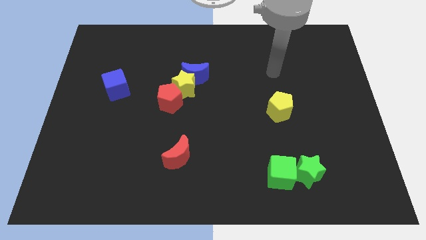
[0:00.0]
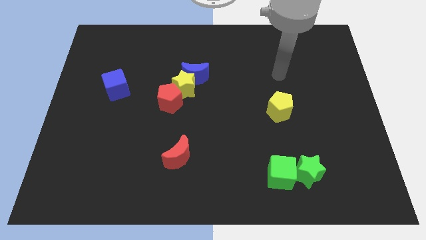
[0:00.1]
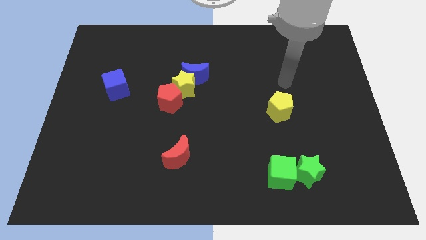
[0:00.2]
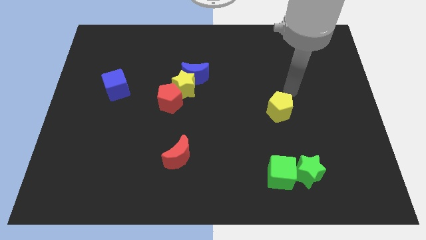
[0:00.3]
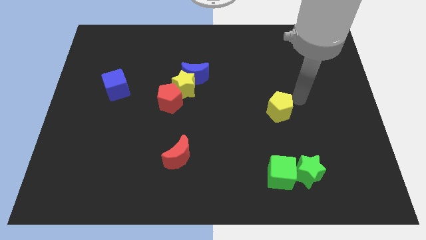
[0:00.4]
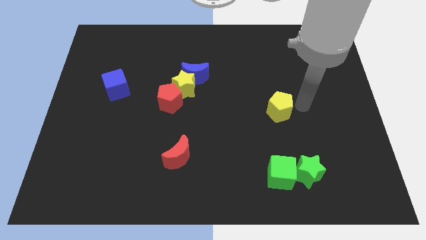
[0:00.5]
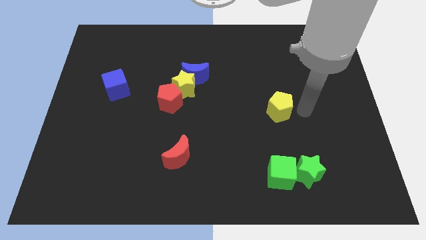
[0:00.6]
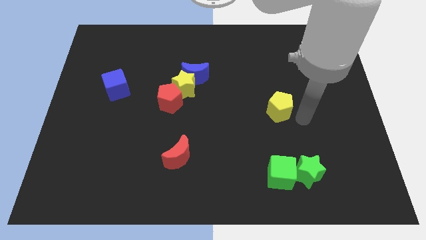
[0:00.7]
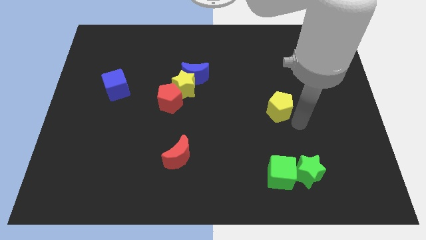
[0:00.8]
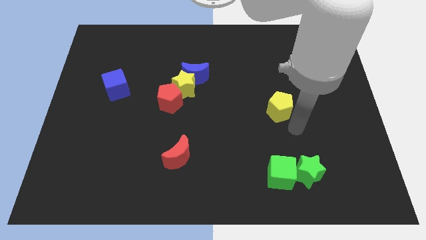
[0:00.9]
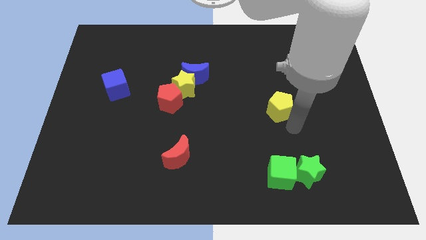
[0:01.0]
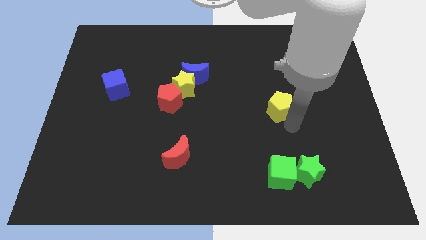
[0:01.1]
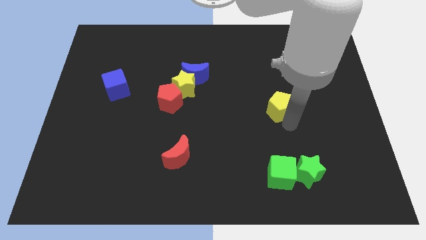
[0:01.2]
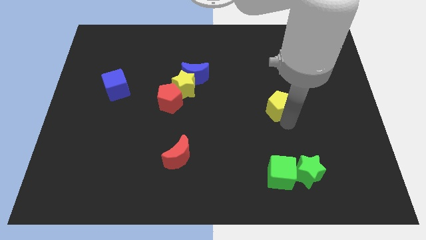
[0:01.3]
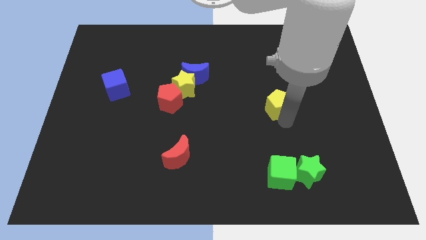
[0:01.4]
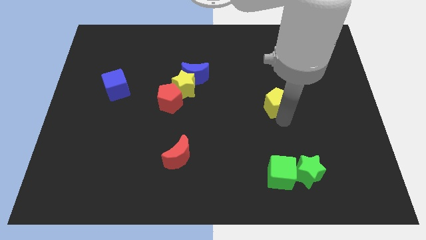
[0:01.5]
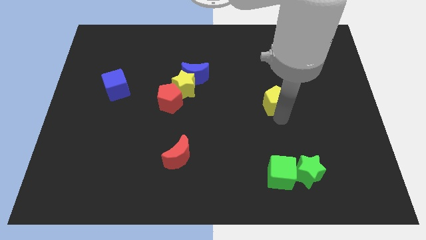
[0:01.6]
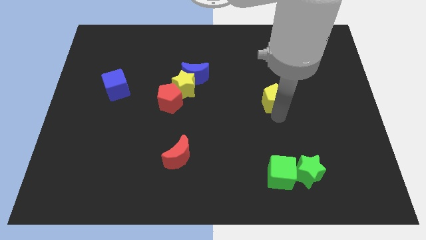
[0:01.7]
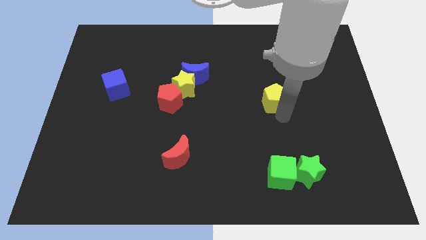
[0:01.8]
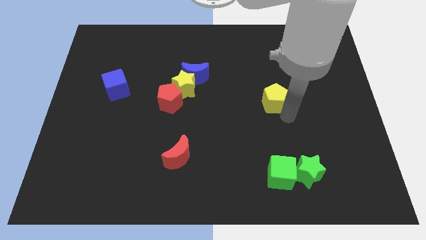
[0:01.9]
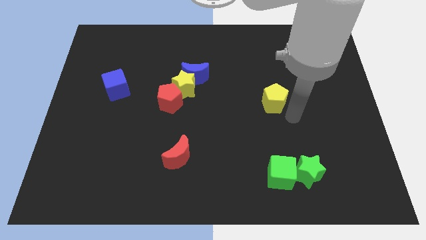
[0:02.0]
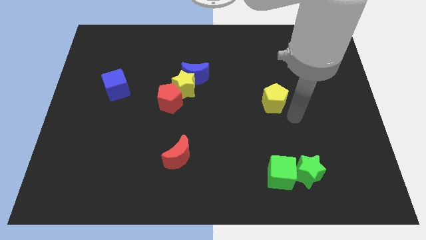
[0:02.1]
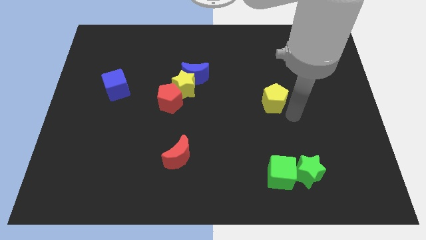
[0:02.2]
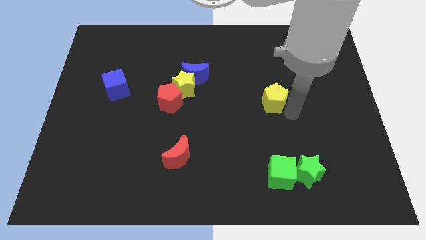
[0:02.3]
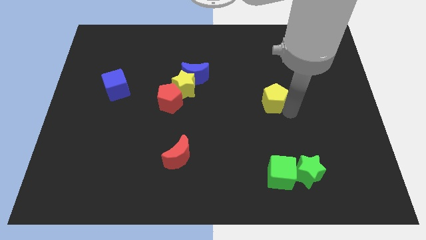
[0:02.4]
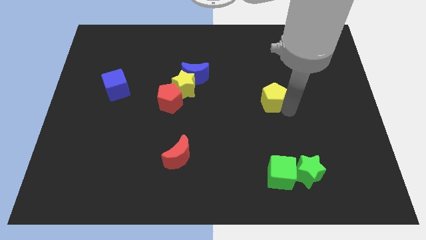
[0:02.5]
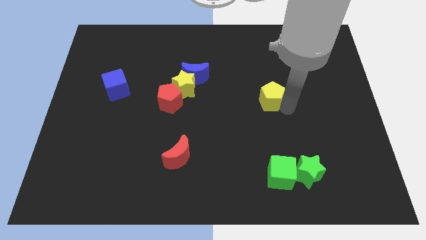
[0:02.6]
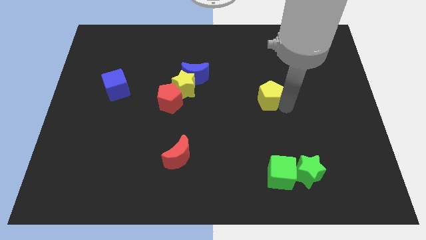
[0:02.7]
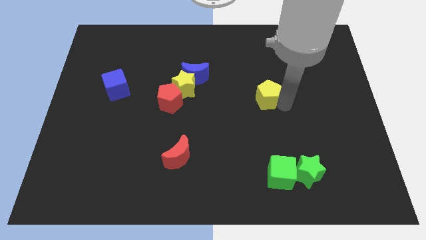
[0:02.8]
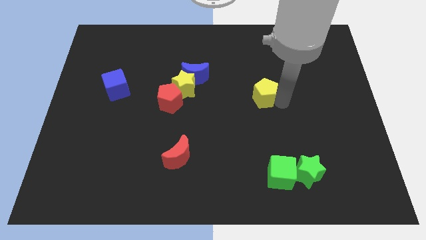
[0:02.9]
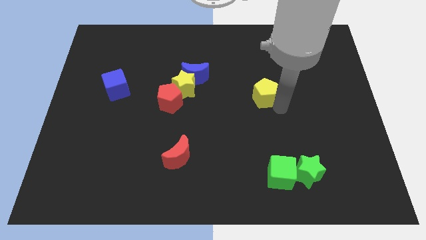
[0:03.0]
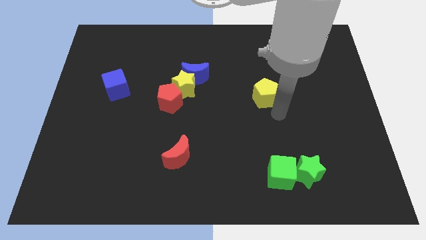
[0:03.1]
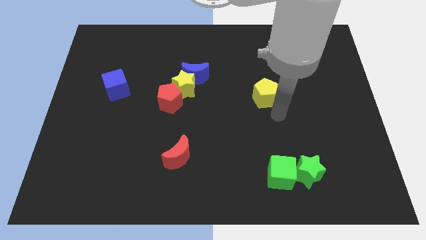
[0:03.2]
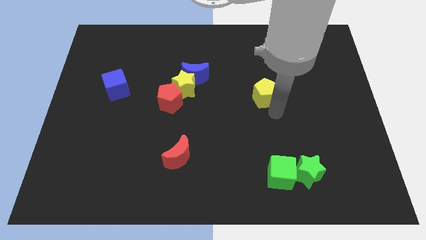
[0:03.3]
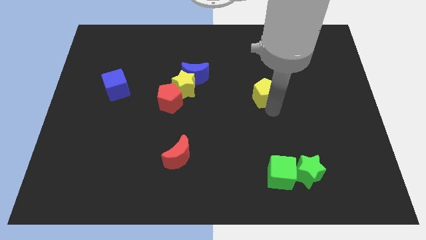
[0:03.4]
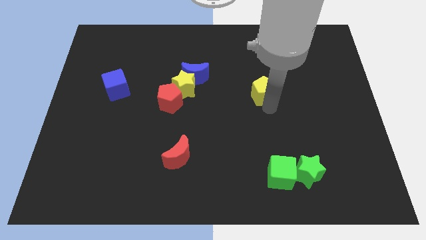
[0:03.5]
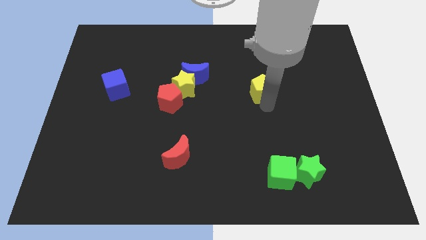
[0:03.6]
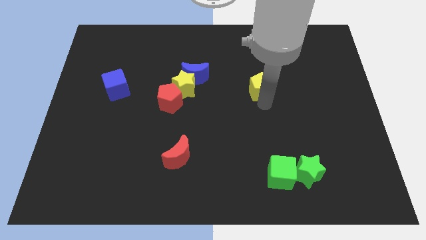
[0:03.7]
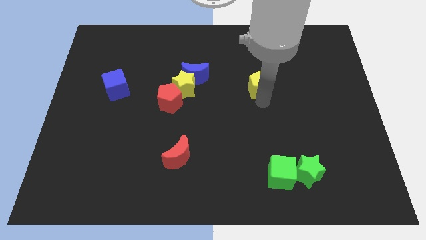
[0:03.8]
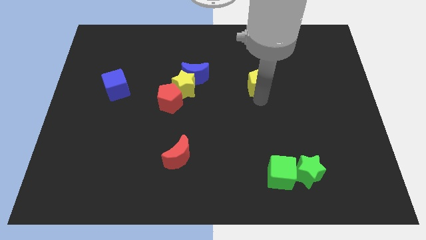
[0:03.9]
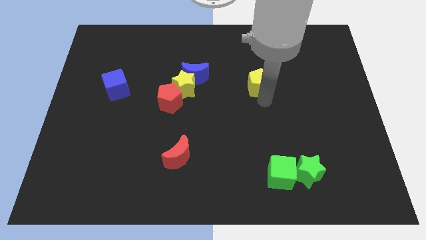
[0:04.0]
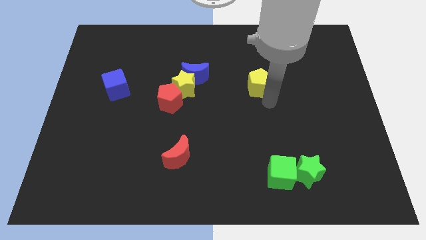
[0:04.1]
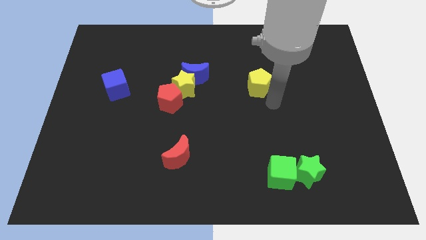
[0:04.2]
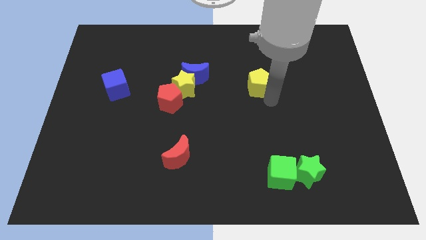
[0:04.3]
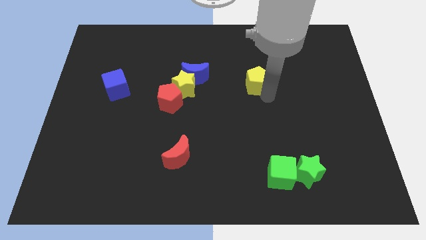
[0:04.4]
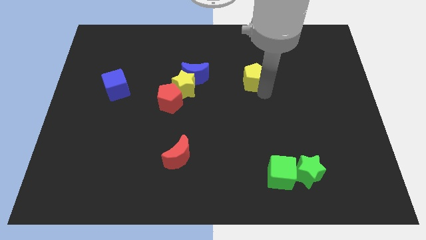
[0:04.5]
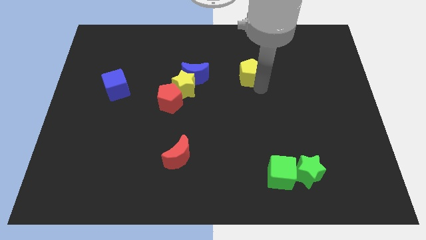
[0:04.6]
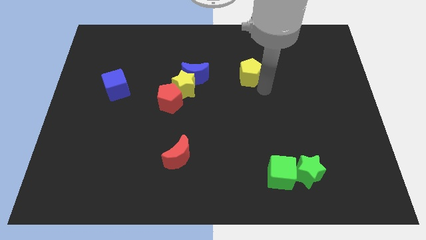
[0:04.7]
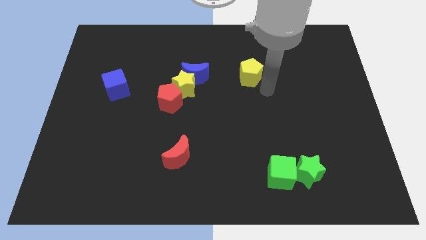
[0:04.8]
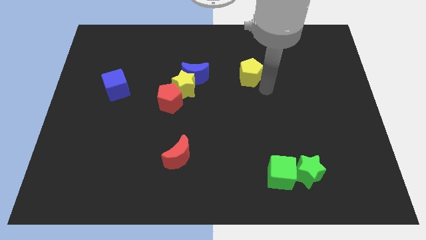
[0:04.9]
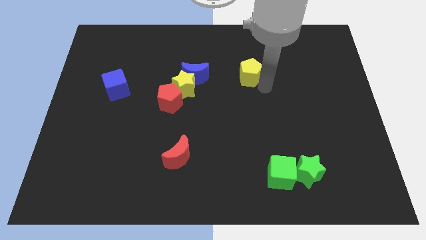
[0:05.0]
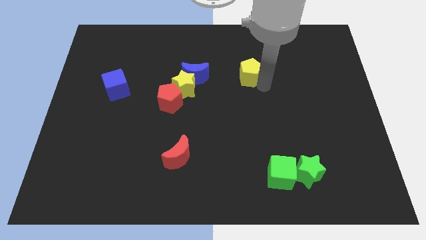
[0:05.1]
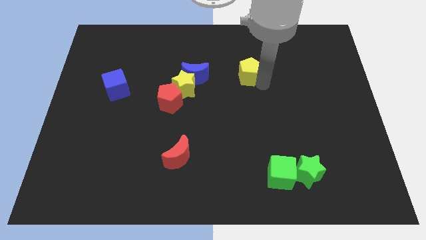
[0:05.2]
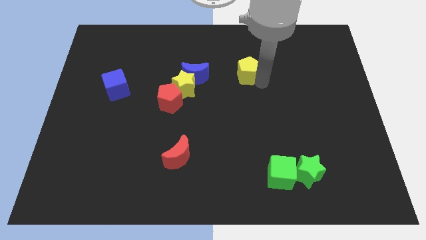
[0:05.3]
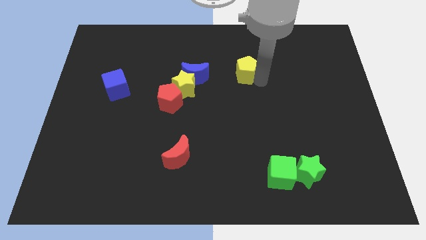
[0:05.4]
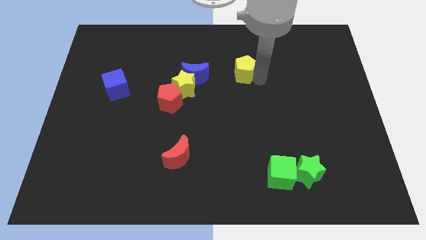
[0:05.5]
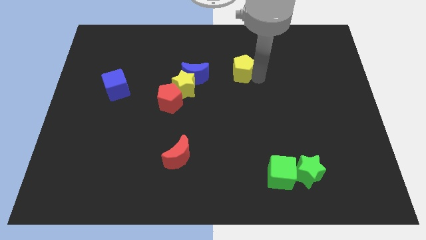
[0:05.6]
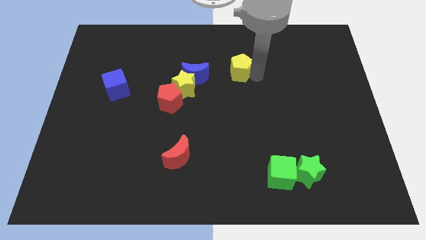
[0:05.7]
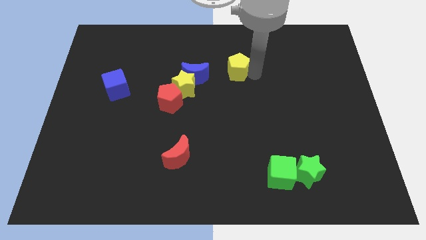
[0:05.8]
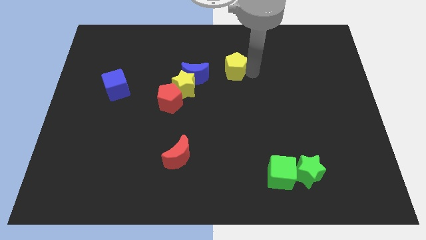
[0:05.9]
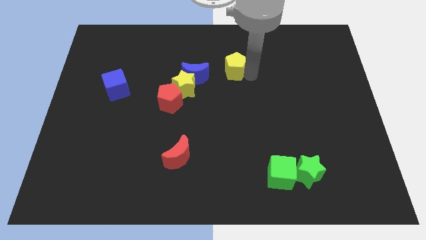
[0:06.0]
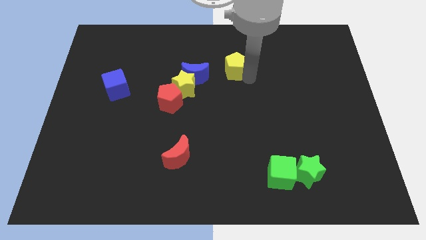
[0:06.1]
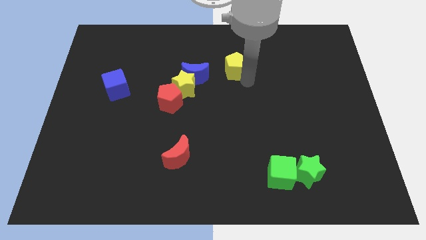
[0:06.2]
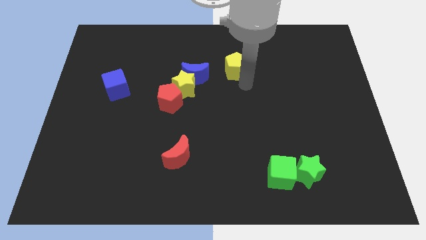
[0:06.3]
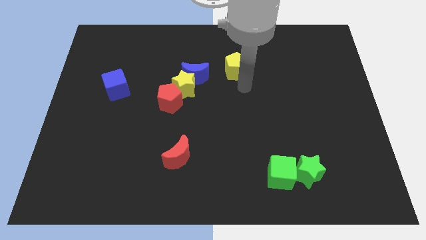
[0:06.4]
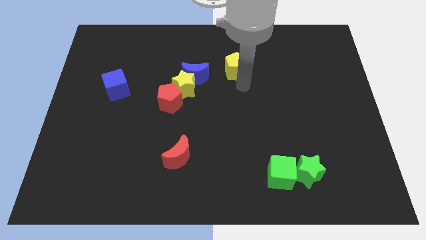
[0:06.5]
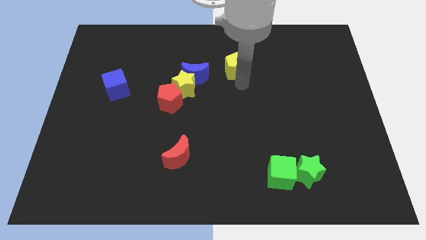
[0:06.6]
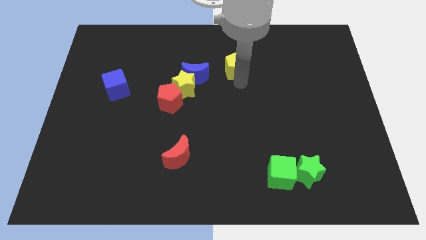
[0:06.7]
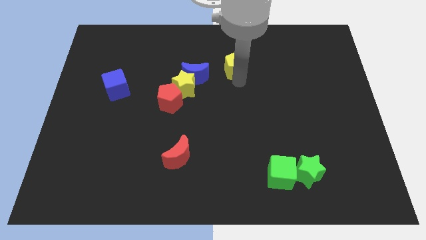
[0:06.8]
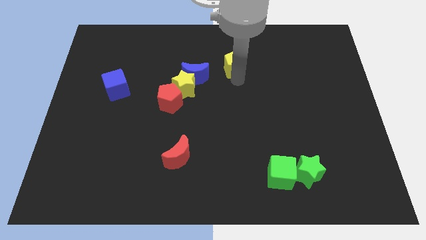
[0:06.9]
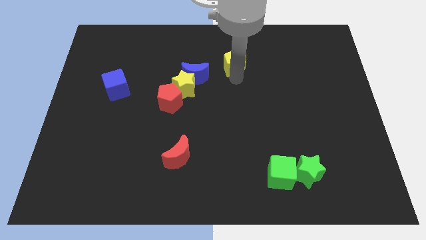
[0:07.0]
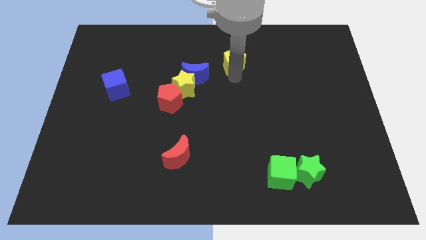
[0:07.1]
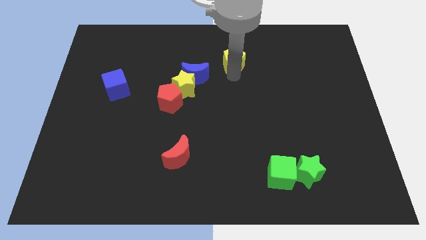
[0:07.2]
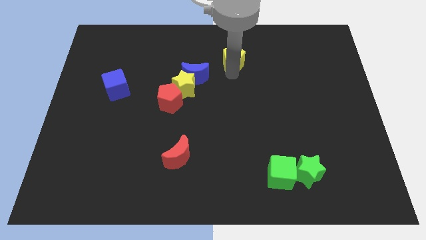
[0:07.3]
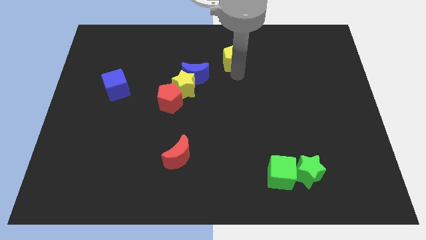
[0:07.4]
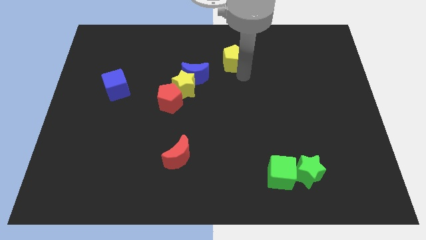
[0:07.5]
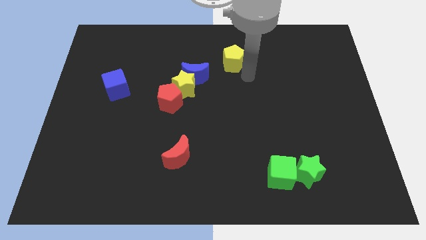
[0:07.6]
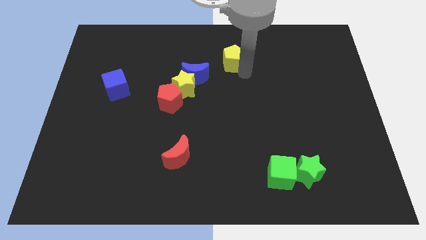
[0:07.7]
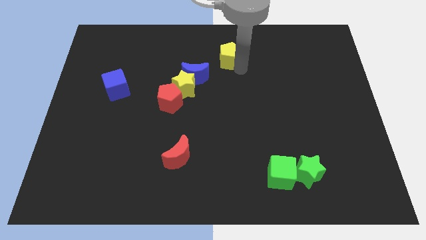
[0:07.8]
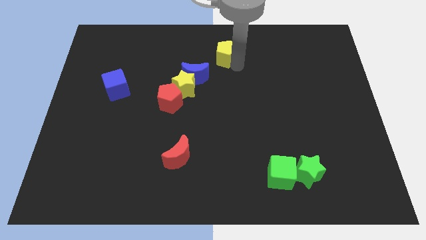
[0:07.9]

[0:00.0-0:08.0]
slide the yellow pentagon to the towards your base

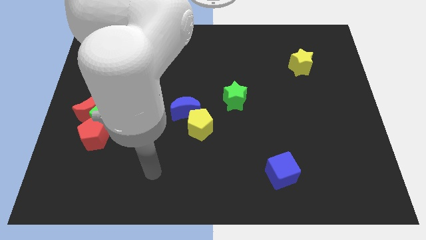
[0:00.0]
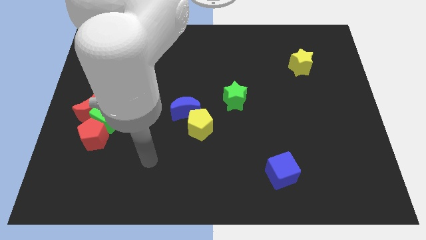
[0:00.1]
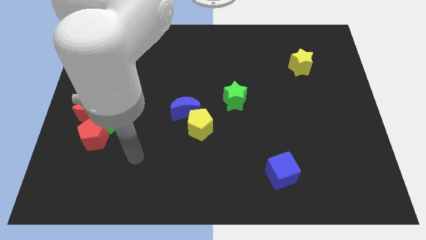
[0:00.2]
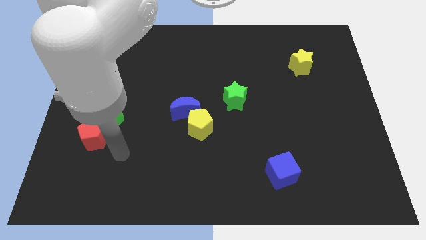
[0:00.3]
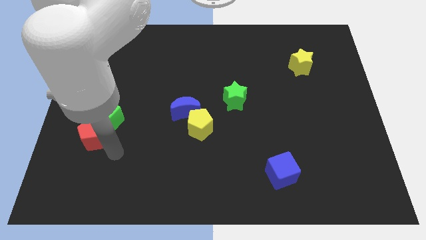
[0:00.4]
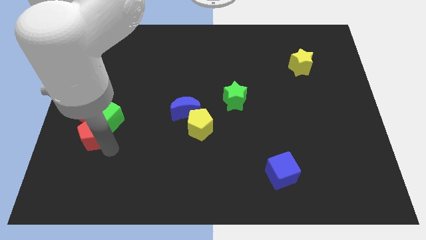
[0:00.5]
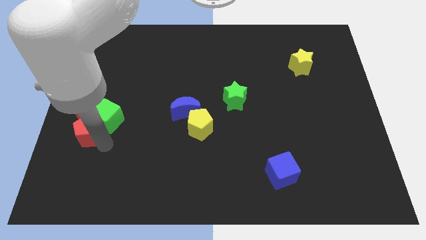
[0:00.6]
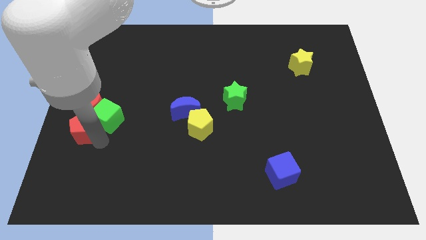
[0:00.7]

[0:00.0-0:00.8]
push the red pentagon to the center left
